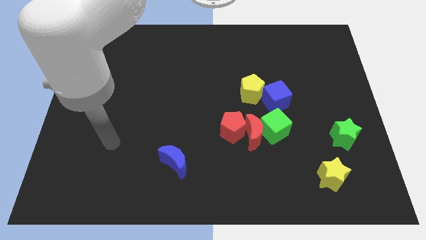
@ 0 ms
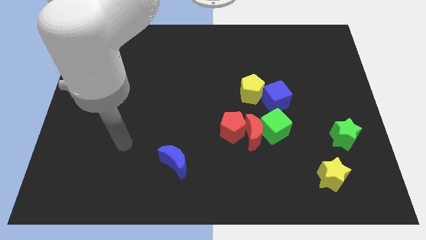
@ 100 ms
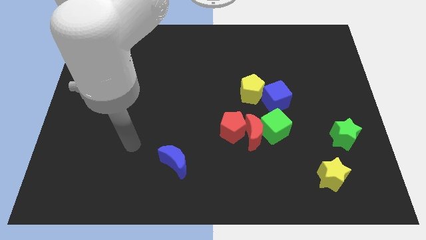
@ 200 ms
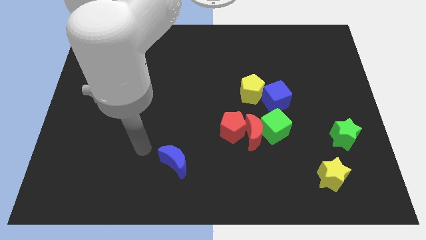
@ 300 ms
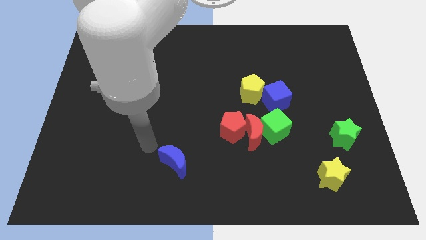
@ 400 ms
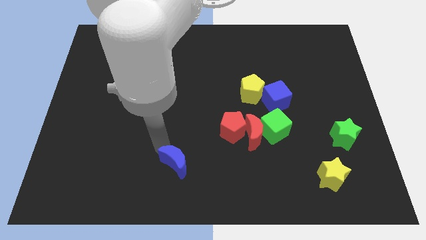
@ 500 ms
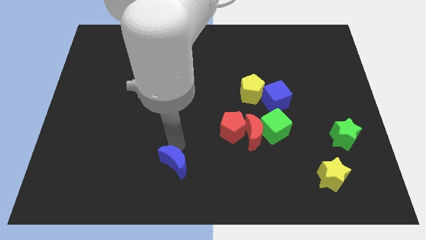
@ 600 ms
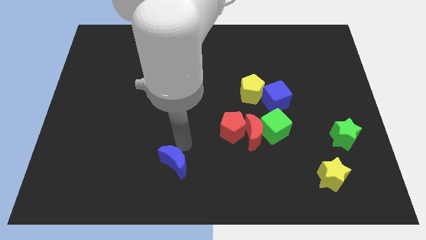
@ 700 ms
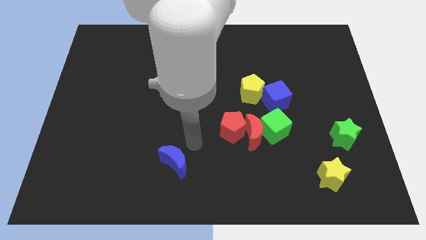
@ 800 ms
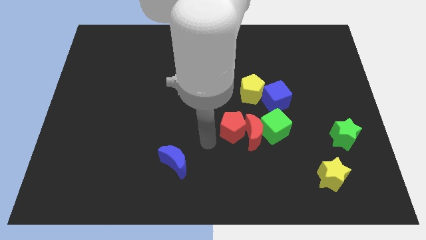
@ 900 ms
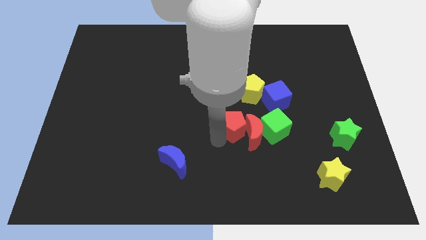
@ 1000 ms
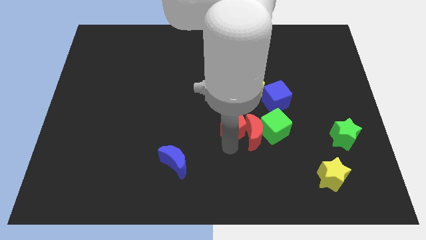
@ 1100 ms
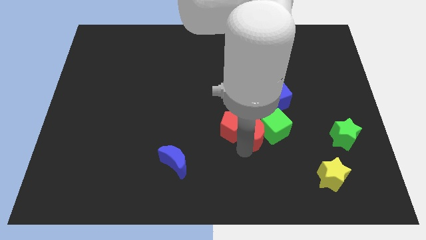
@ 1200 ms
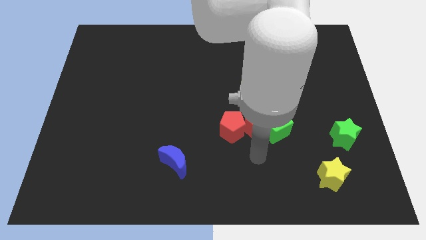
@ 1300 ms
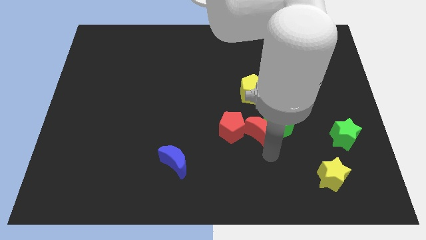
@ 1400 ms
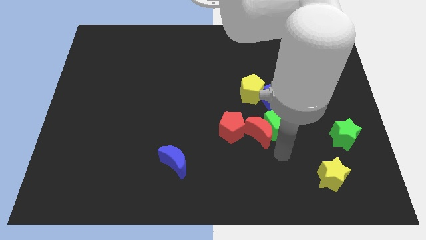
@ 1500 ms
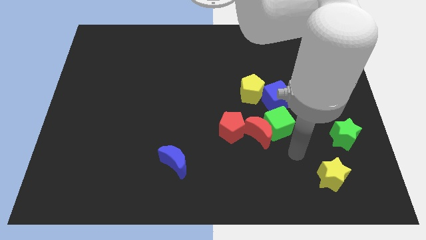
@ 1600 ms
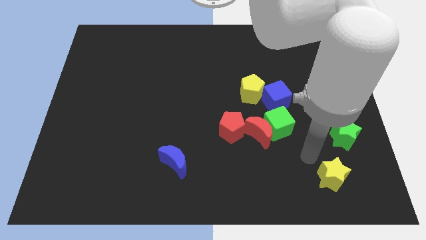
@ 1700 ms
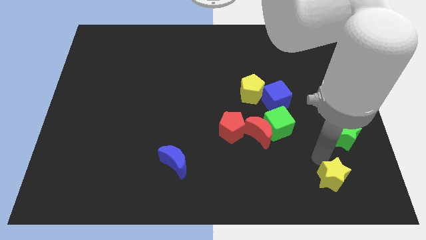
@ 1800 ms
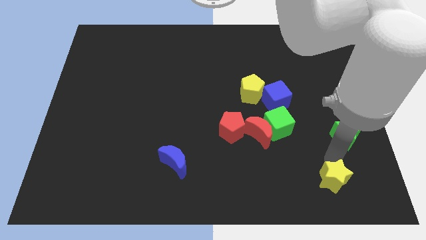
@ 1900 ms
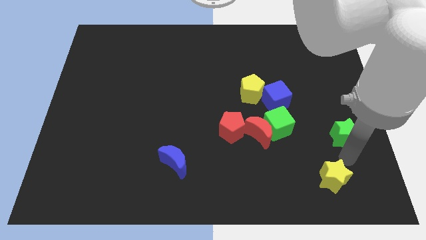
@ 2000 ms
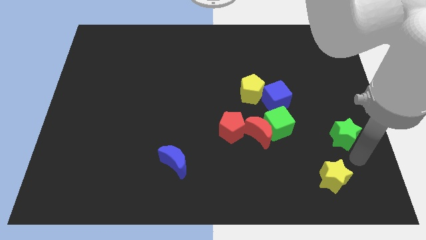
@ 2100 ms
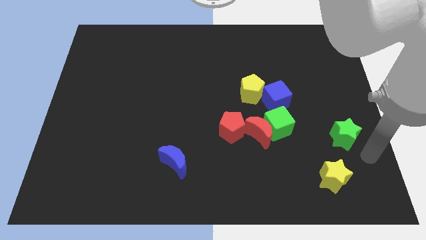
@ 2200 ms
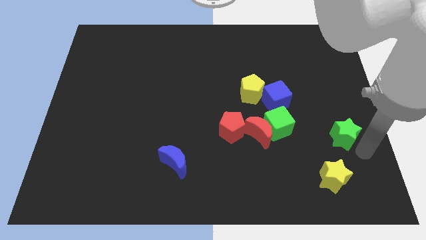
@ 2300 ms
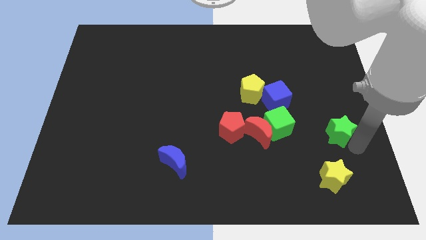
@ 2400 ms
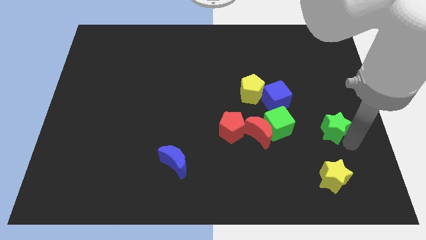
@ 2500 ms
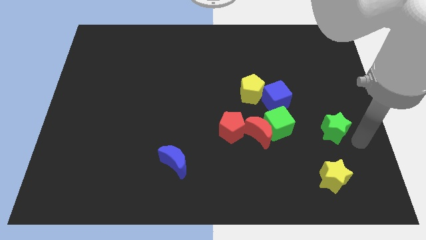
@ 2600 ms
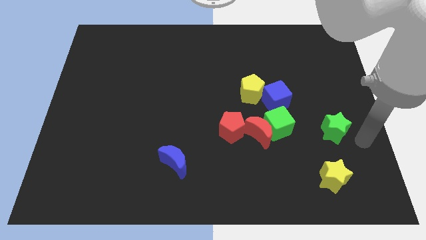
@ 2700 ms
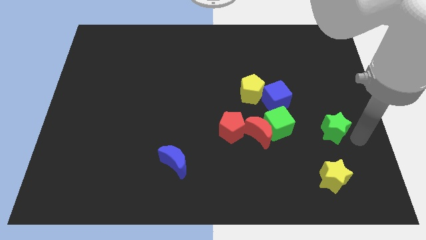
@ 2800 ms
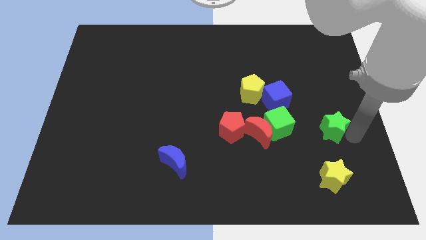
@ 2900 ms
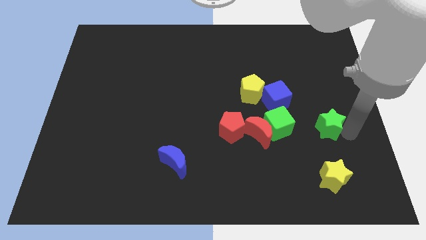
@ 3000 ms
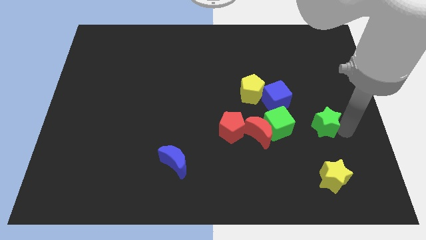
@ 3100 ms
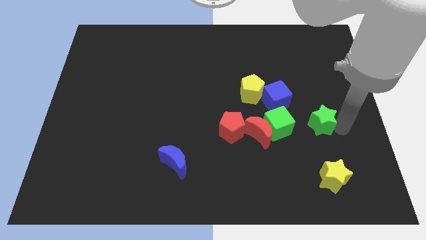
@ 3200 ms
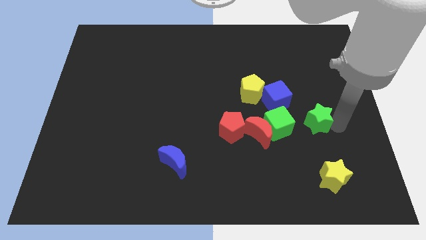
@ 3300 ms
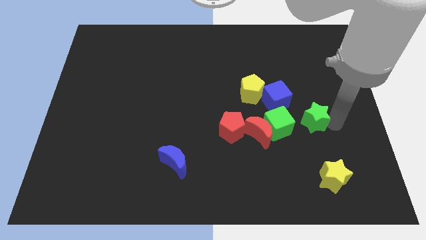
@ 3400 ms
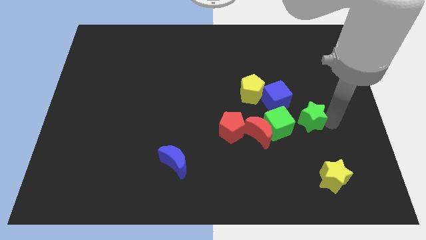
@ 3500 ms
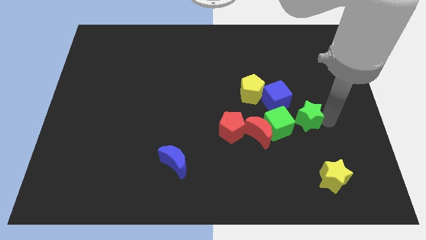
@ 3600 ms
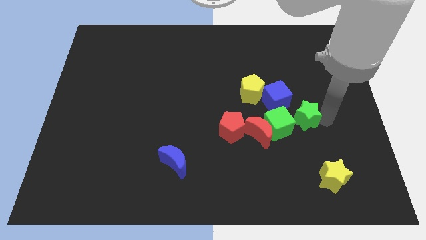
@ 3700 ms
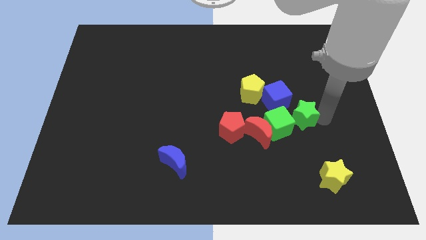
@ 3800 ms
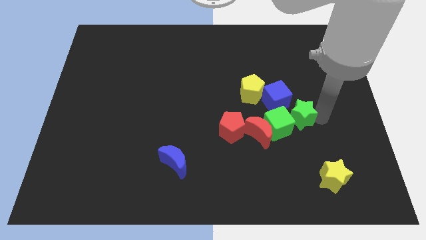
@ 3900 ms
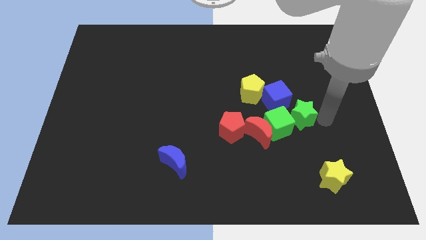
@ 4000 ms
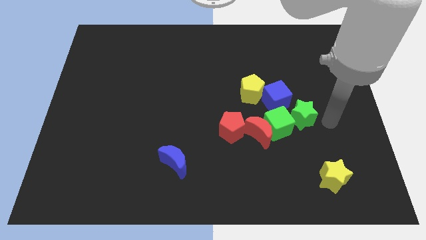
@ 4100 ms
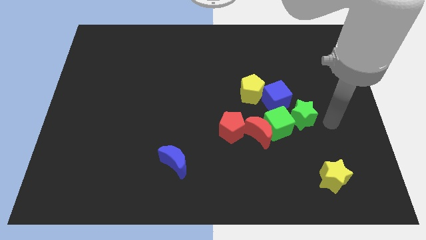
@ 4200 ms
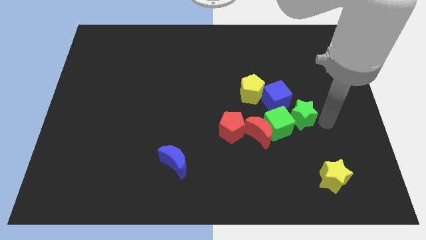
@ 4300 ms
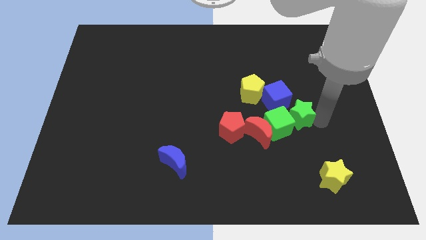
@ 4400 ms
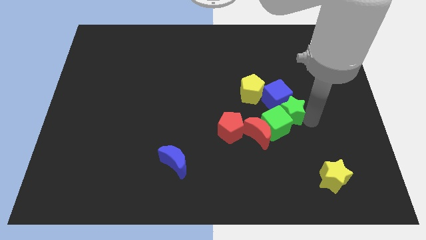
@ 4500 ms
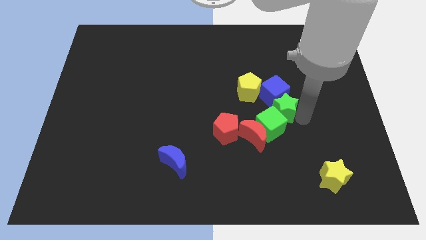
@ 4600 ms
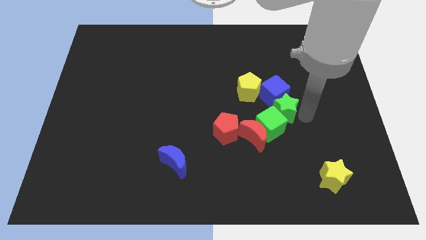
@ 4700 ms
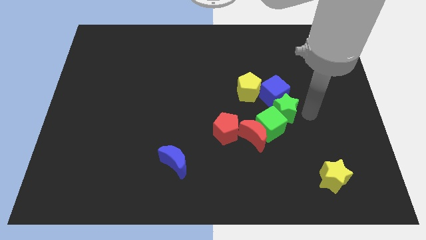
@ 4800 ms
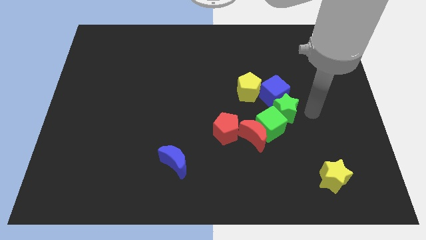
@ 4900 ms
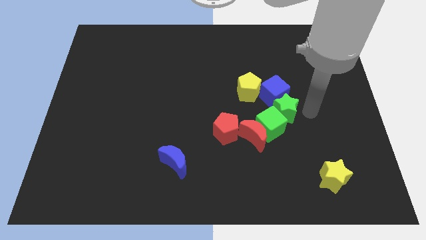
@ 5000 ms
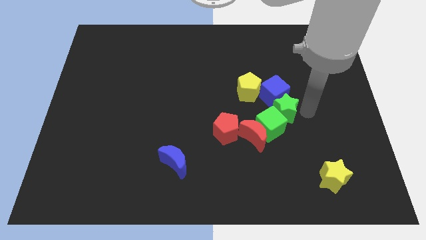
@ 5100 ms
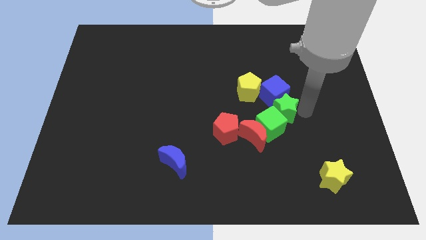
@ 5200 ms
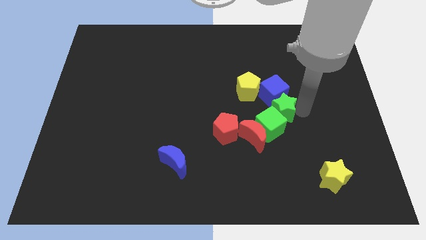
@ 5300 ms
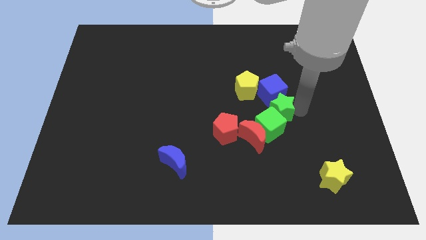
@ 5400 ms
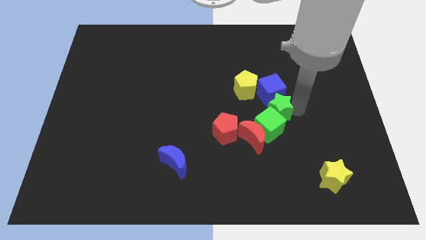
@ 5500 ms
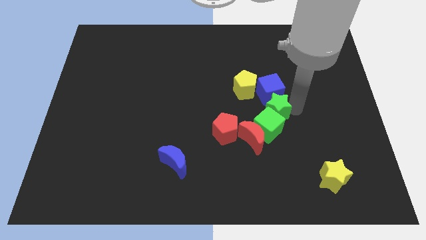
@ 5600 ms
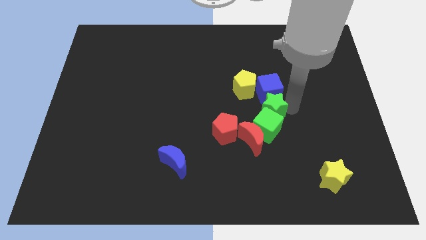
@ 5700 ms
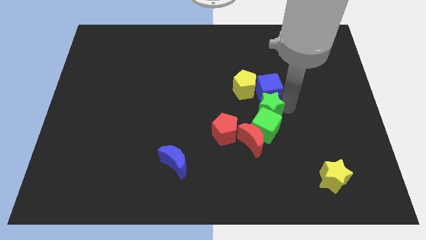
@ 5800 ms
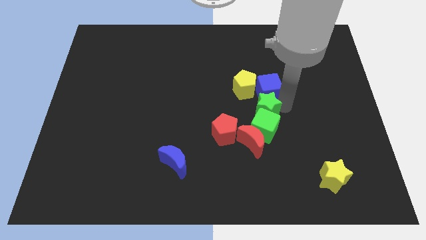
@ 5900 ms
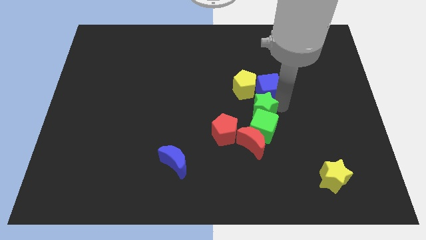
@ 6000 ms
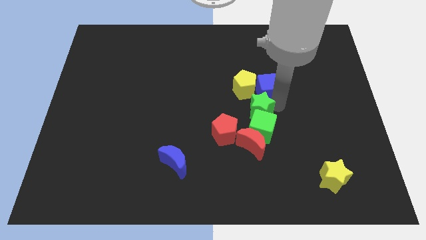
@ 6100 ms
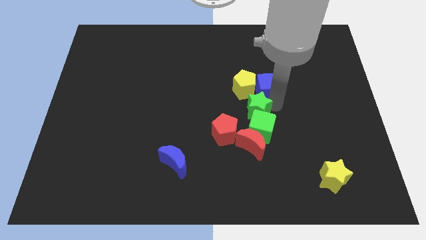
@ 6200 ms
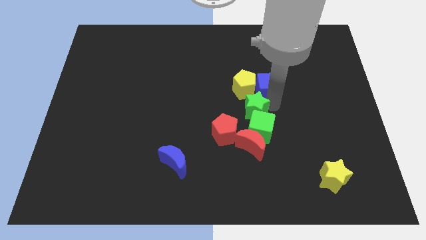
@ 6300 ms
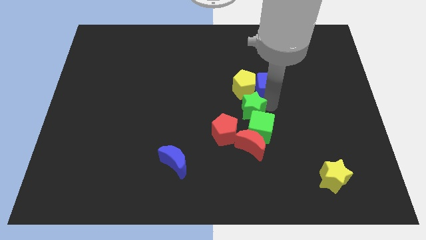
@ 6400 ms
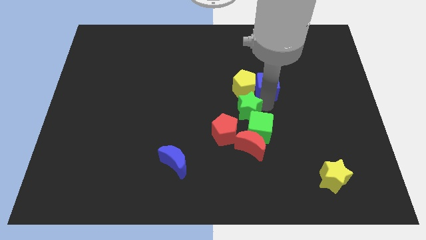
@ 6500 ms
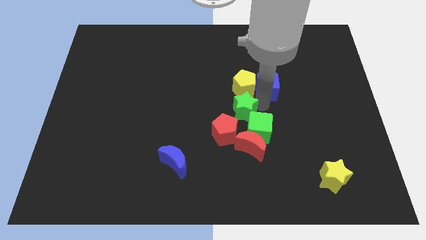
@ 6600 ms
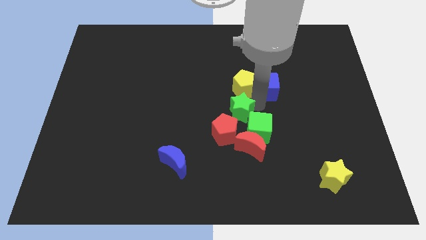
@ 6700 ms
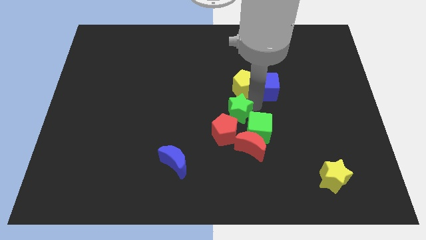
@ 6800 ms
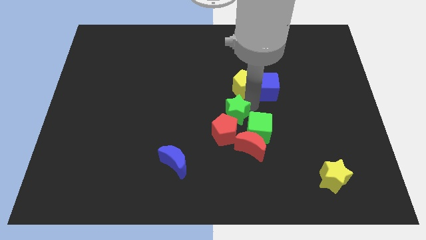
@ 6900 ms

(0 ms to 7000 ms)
slide the green star to the red pentagon

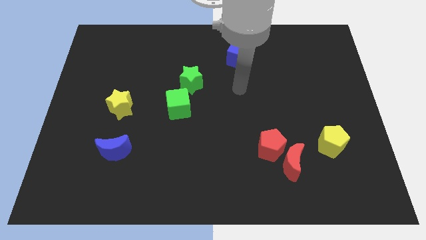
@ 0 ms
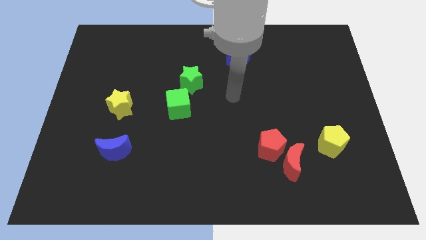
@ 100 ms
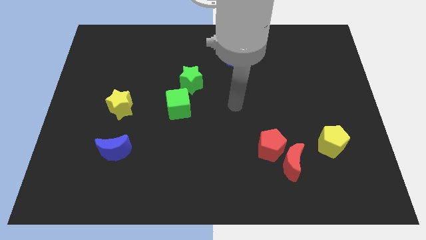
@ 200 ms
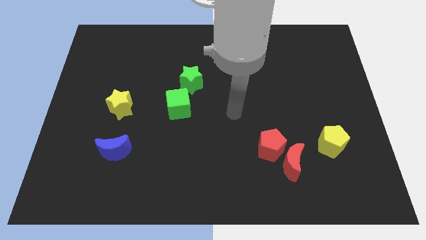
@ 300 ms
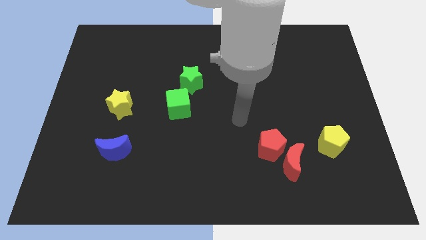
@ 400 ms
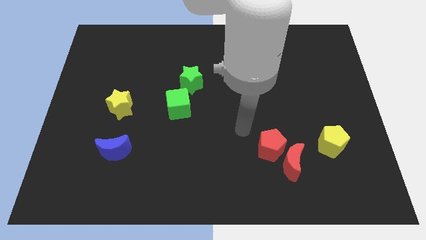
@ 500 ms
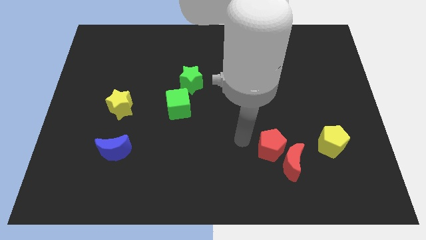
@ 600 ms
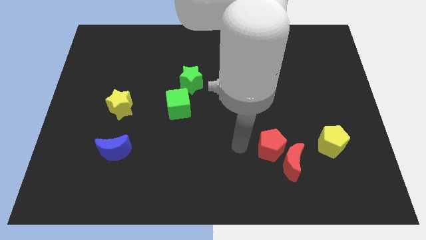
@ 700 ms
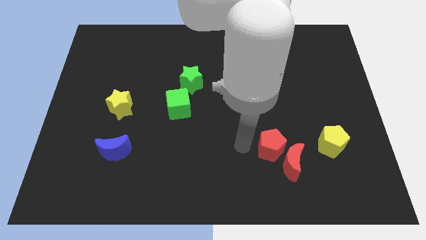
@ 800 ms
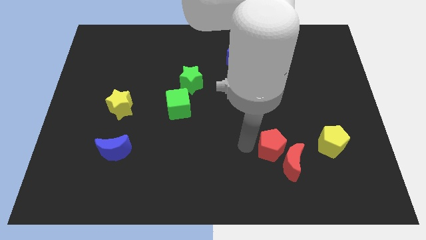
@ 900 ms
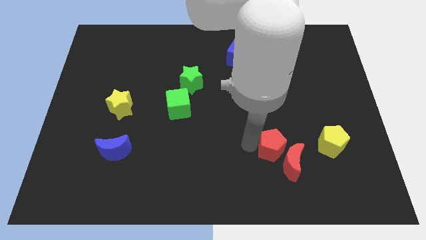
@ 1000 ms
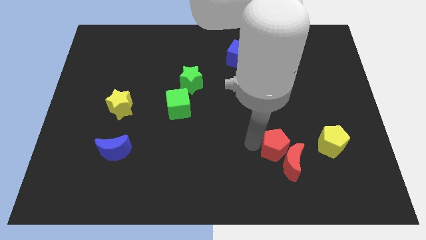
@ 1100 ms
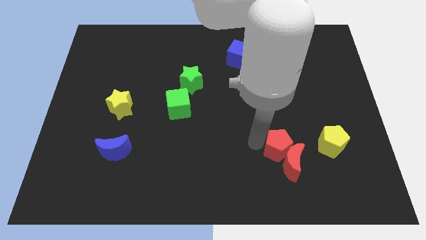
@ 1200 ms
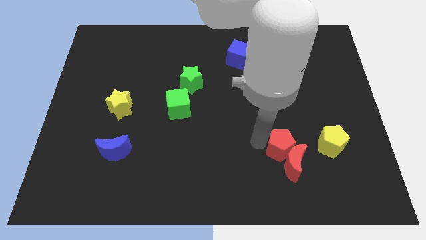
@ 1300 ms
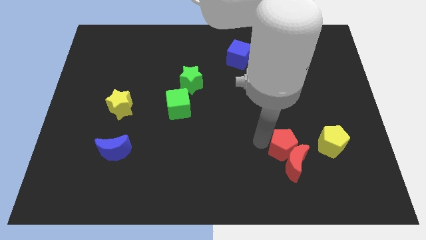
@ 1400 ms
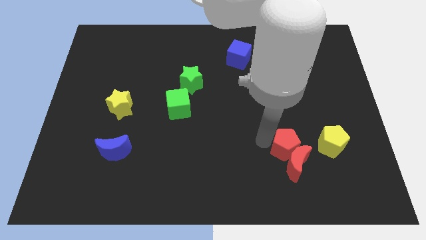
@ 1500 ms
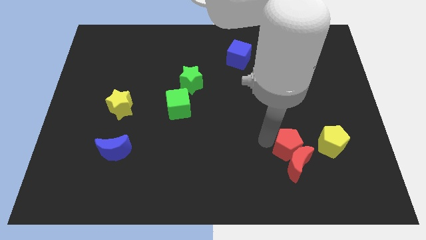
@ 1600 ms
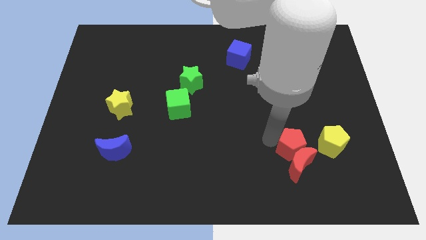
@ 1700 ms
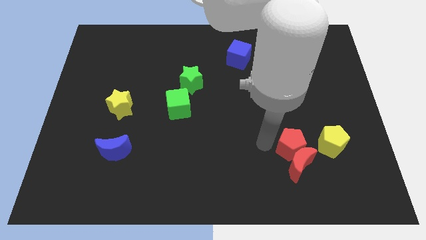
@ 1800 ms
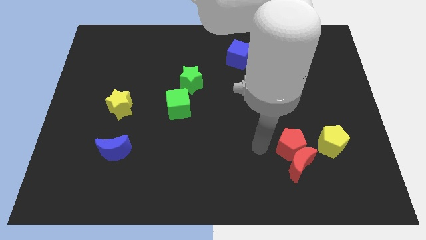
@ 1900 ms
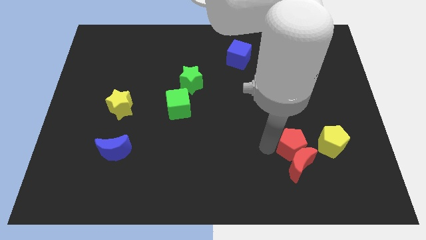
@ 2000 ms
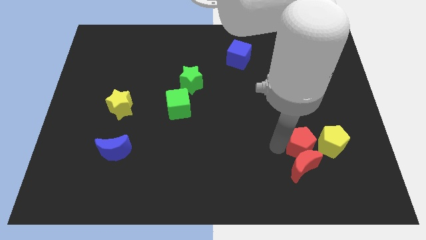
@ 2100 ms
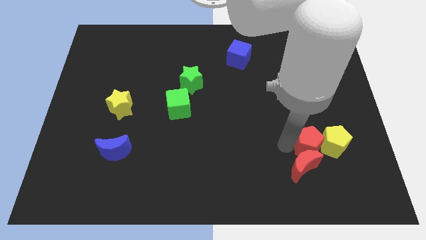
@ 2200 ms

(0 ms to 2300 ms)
put the red pentagon close to the yellow pentagon
